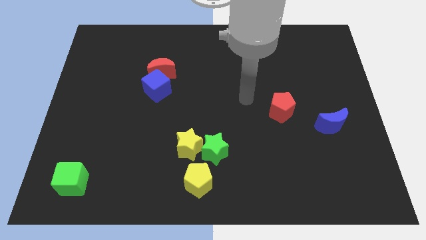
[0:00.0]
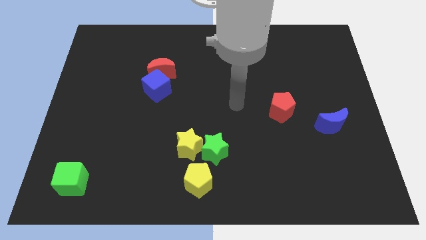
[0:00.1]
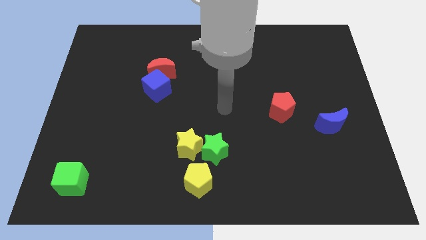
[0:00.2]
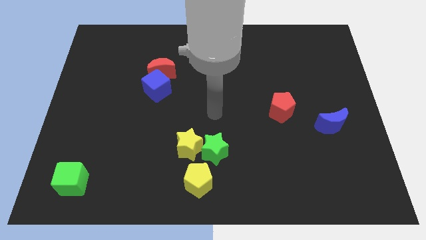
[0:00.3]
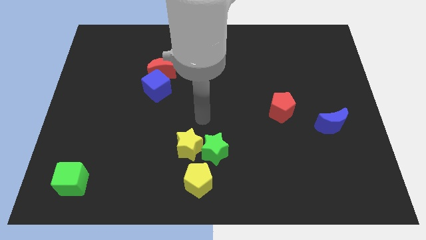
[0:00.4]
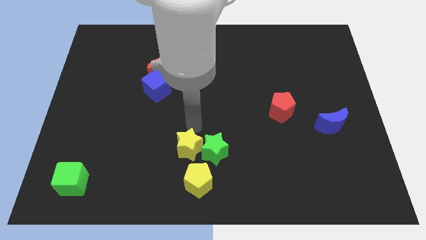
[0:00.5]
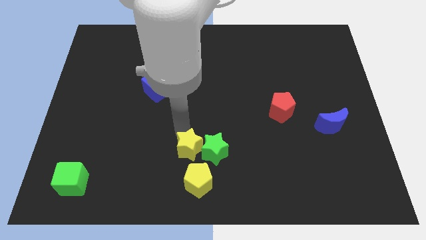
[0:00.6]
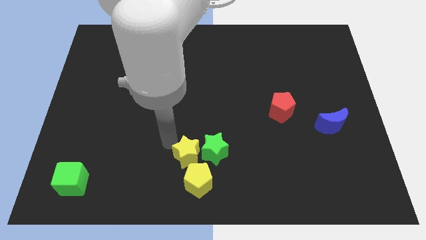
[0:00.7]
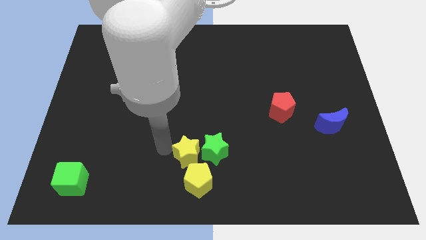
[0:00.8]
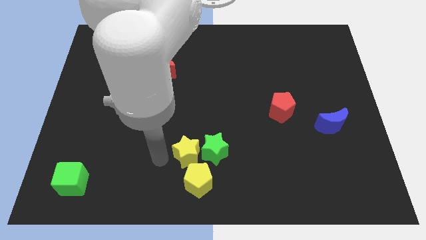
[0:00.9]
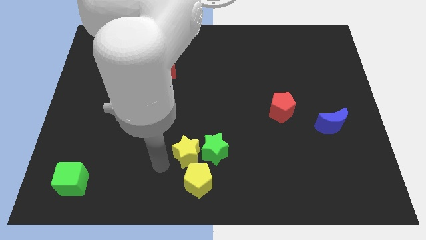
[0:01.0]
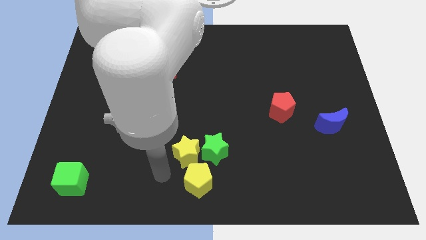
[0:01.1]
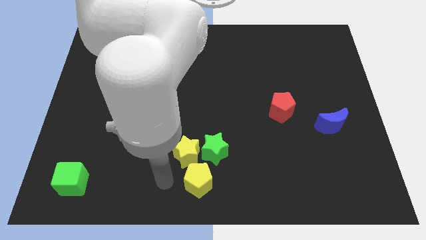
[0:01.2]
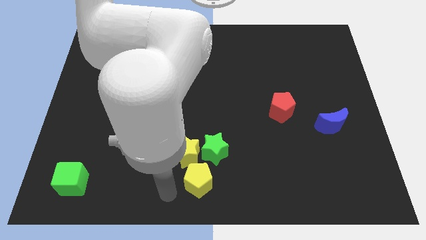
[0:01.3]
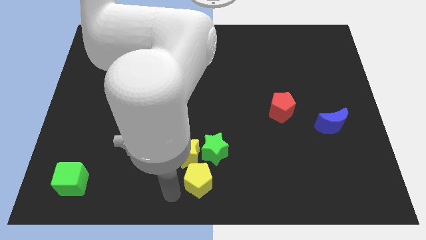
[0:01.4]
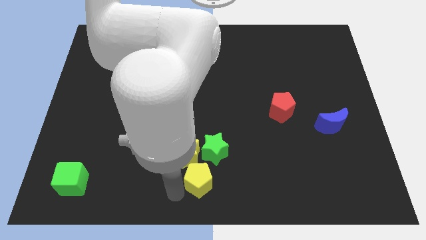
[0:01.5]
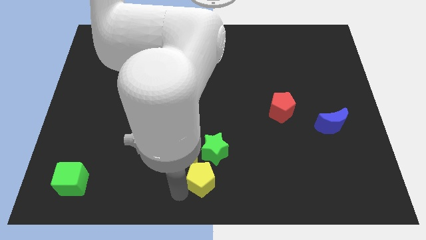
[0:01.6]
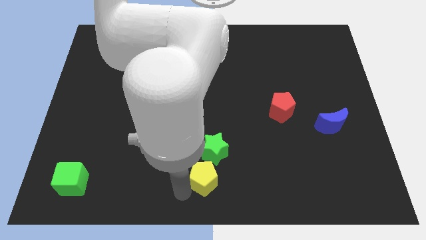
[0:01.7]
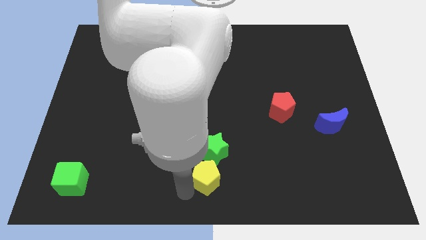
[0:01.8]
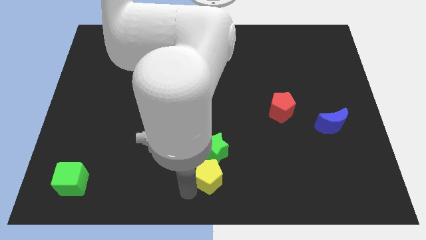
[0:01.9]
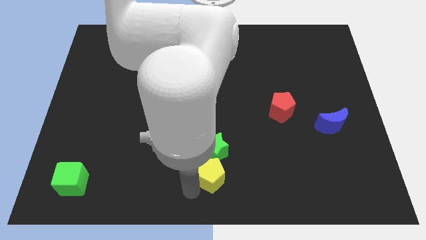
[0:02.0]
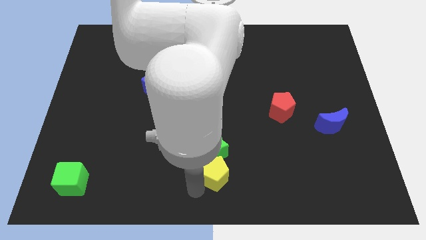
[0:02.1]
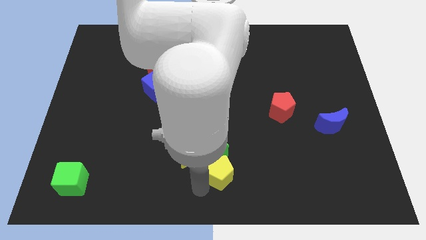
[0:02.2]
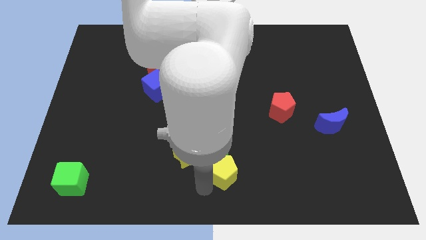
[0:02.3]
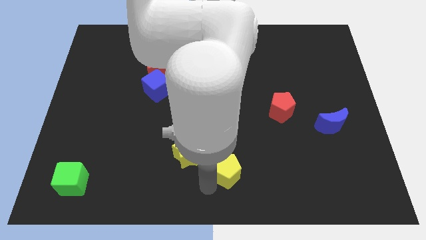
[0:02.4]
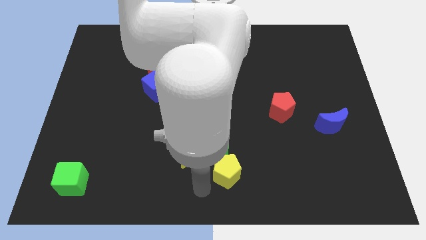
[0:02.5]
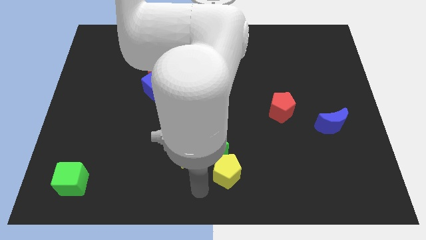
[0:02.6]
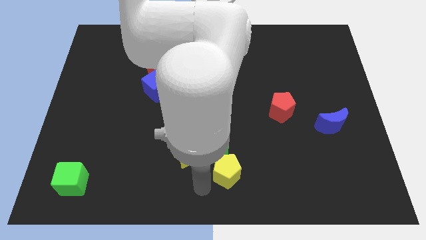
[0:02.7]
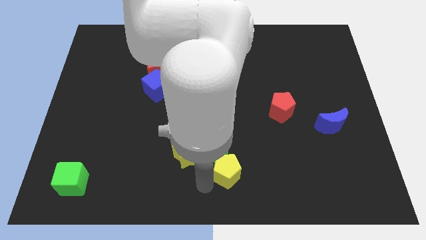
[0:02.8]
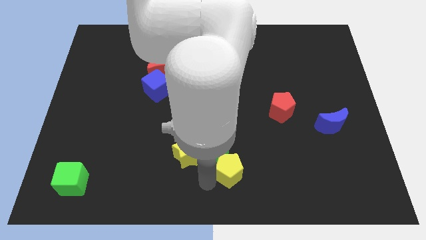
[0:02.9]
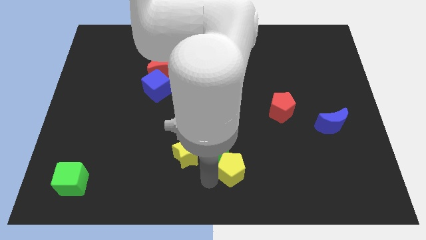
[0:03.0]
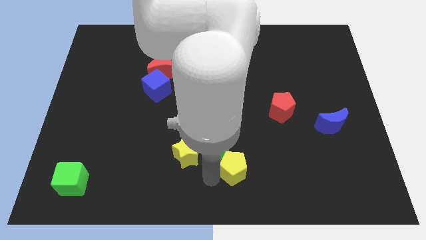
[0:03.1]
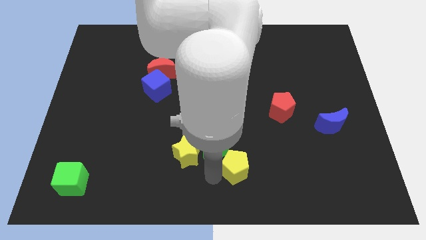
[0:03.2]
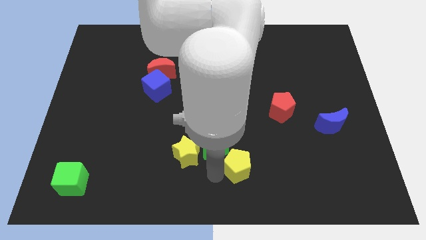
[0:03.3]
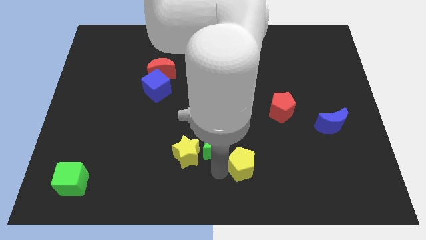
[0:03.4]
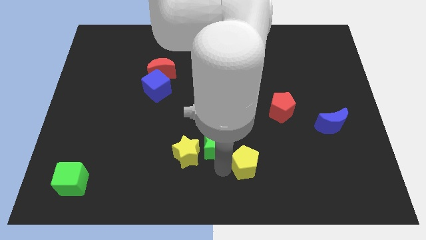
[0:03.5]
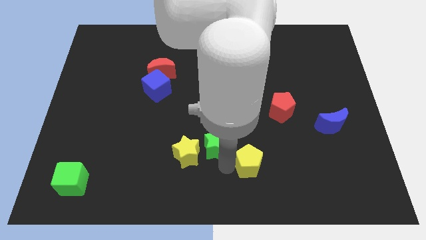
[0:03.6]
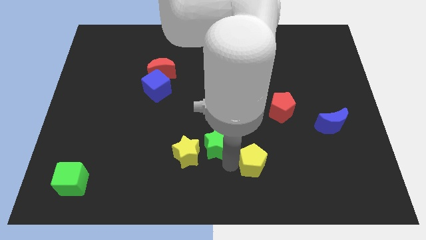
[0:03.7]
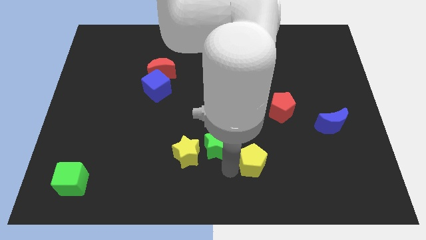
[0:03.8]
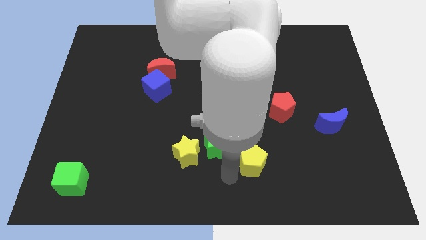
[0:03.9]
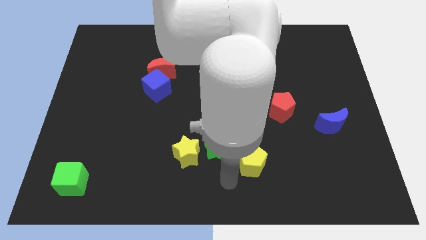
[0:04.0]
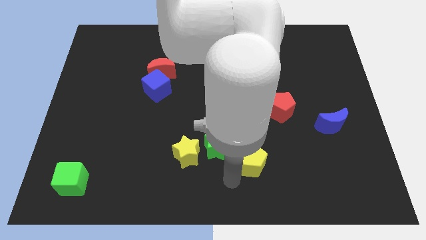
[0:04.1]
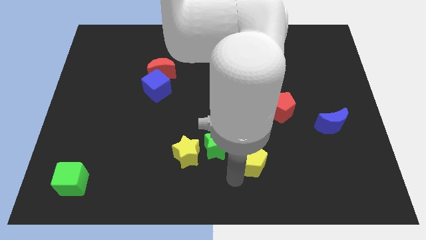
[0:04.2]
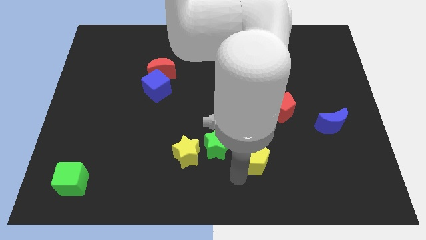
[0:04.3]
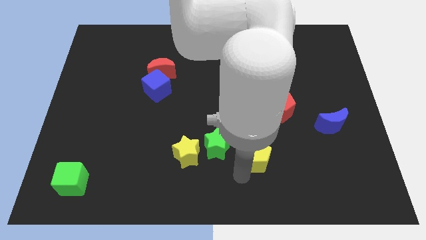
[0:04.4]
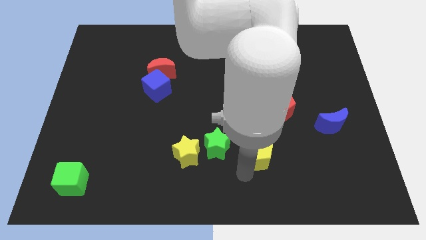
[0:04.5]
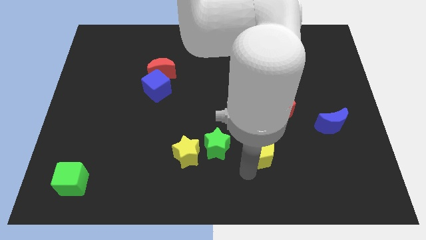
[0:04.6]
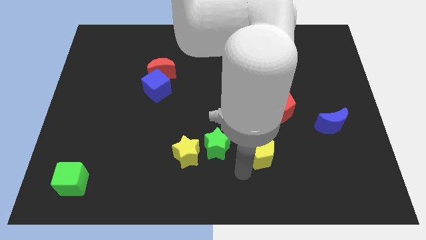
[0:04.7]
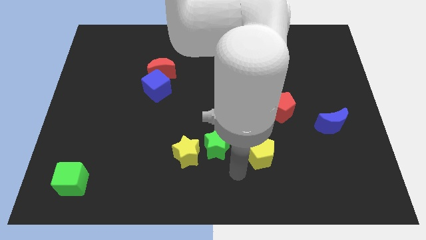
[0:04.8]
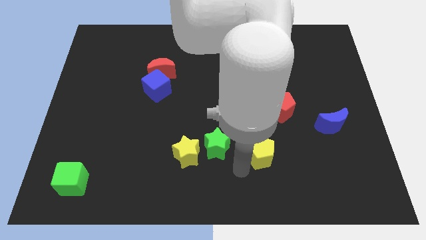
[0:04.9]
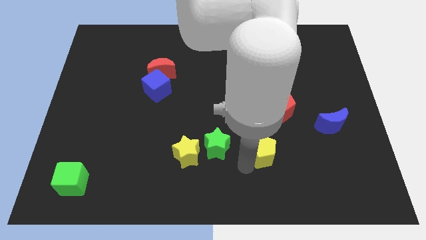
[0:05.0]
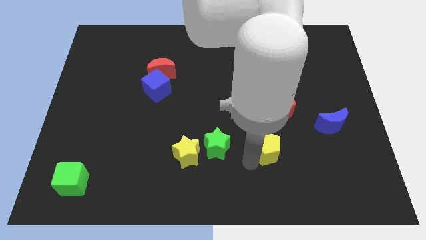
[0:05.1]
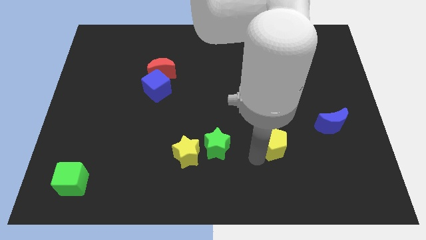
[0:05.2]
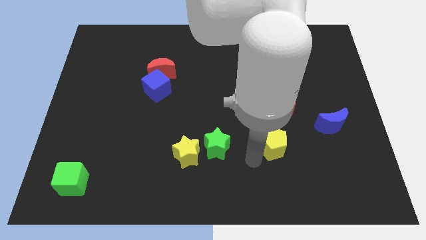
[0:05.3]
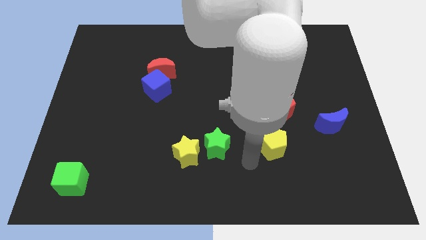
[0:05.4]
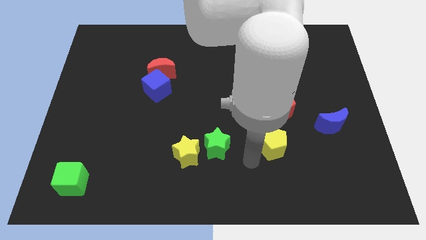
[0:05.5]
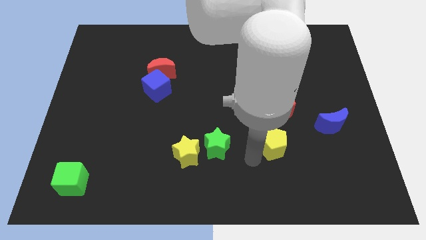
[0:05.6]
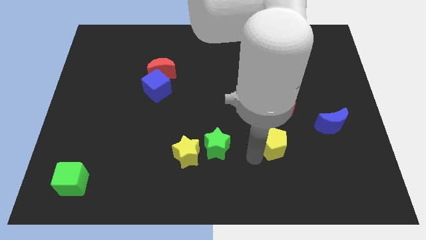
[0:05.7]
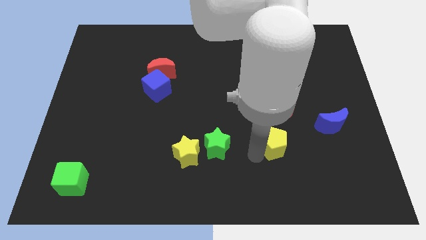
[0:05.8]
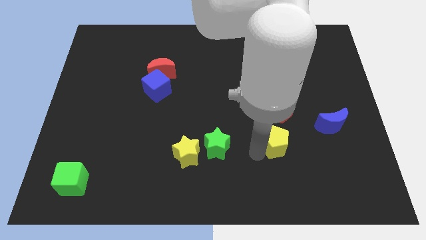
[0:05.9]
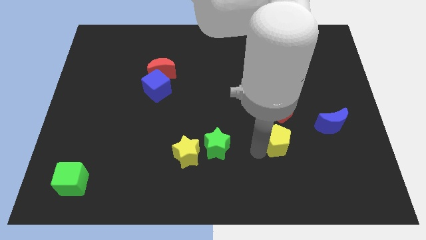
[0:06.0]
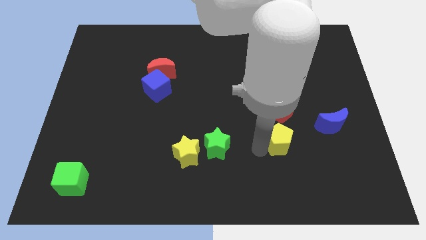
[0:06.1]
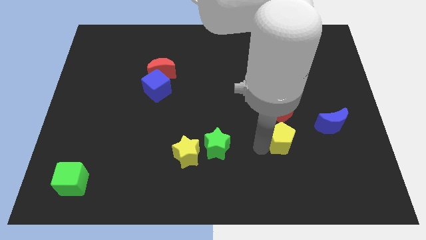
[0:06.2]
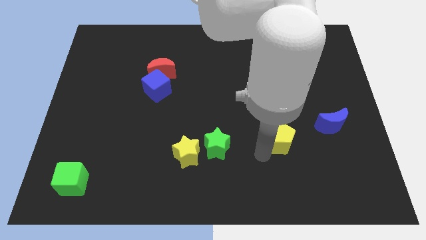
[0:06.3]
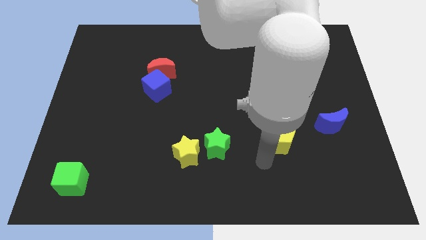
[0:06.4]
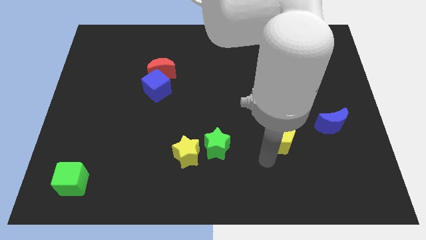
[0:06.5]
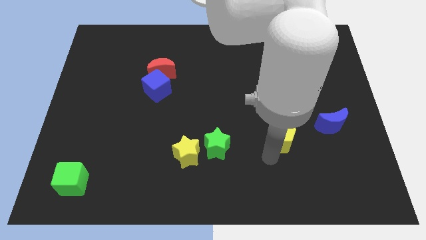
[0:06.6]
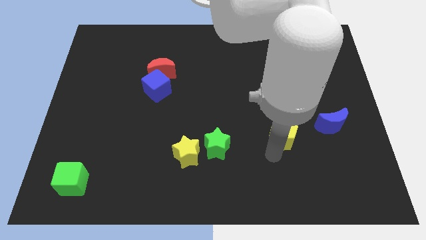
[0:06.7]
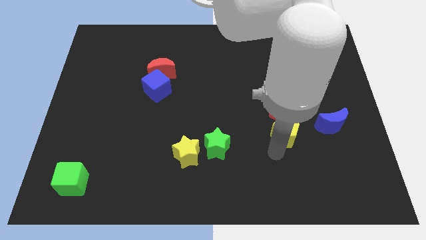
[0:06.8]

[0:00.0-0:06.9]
push the yellow pentagon upwards and then to the right

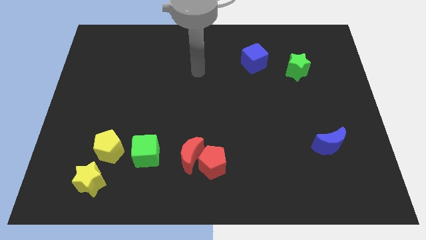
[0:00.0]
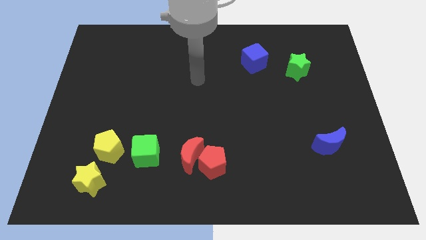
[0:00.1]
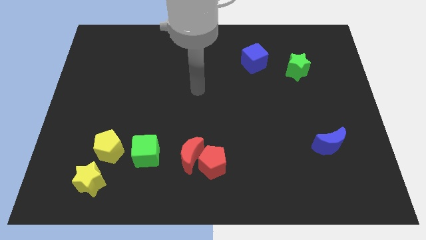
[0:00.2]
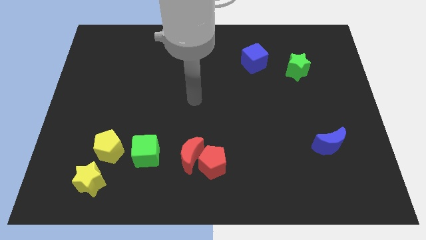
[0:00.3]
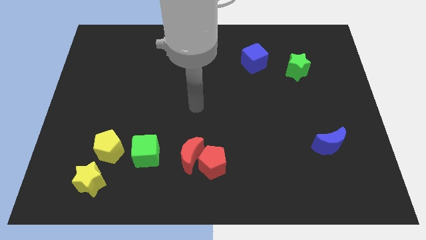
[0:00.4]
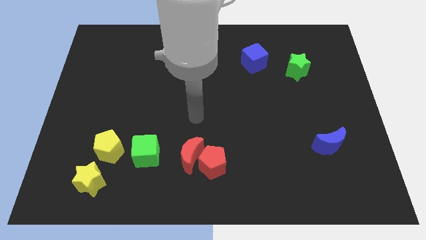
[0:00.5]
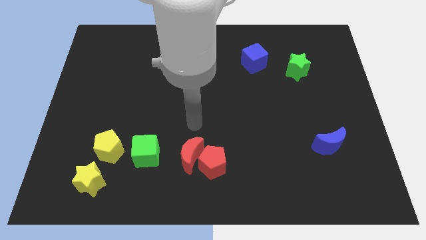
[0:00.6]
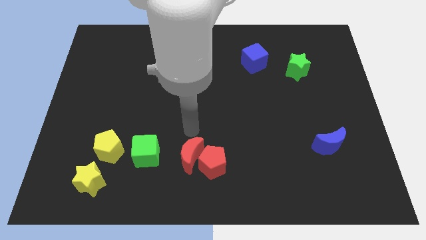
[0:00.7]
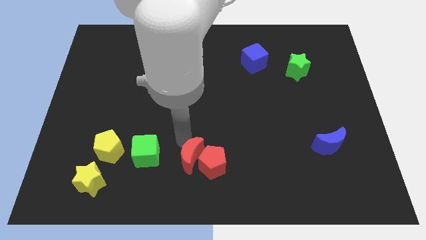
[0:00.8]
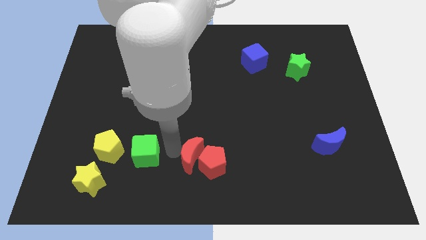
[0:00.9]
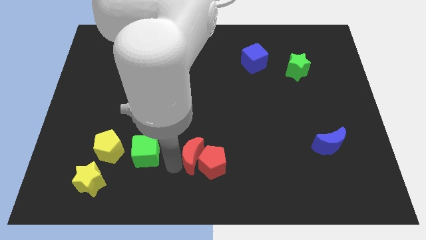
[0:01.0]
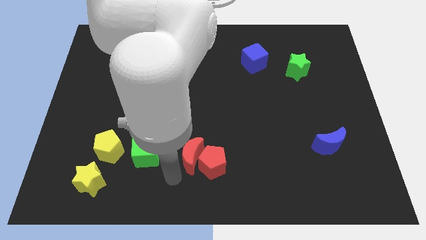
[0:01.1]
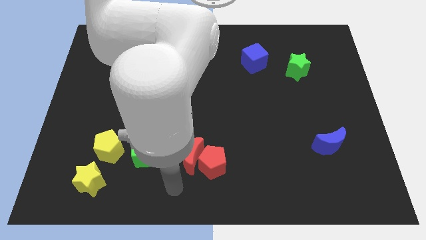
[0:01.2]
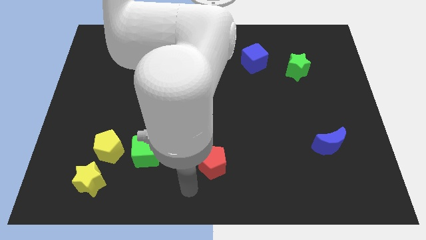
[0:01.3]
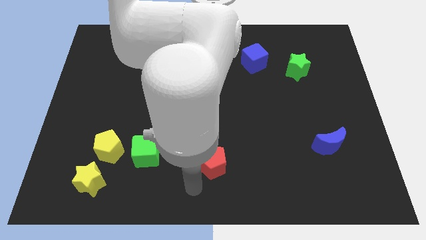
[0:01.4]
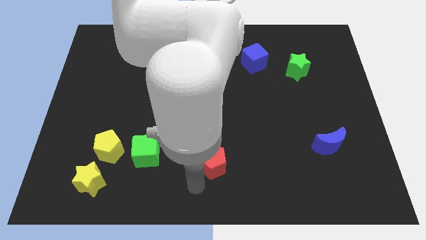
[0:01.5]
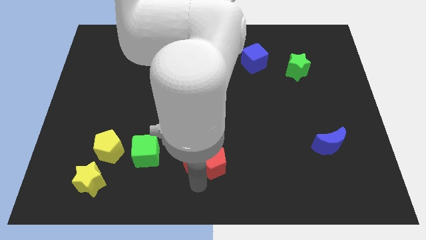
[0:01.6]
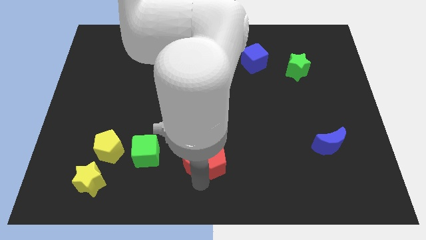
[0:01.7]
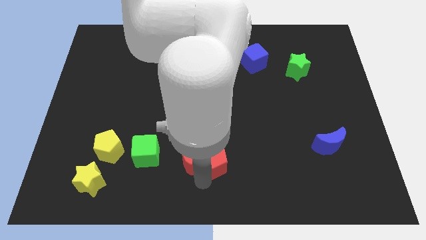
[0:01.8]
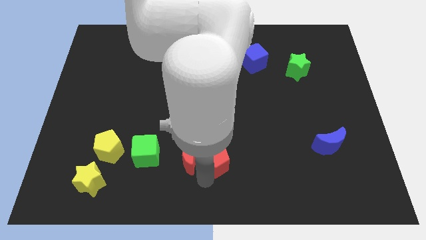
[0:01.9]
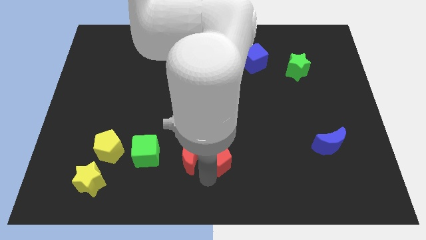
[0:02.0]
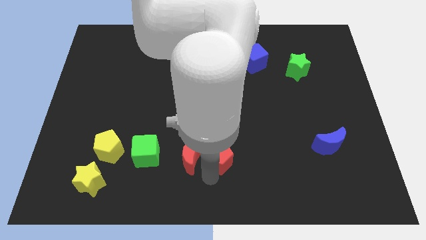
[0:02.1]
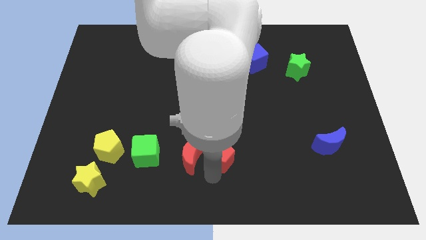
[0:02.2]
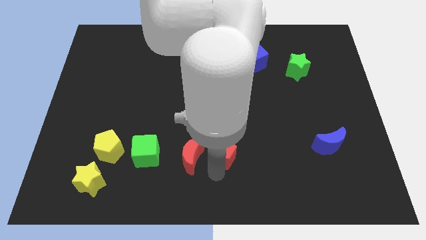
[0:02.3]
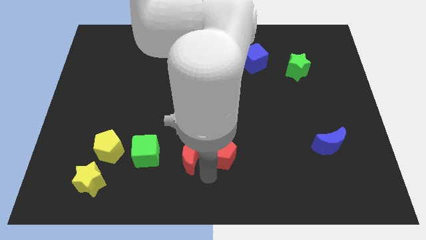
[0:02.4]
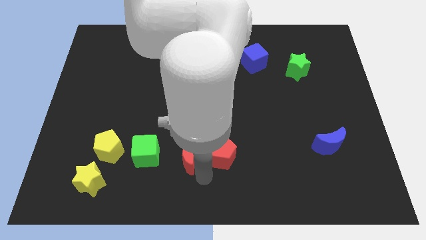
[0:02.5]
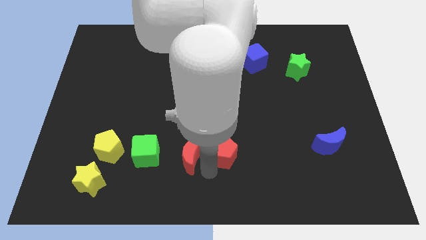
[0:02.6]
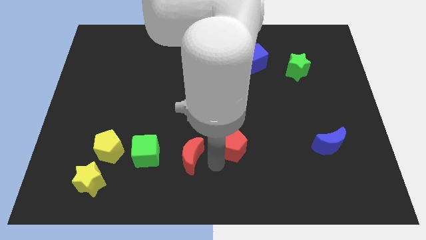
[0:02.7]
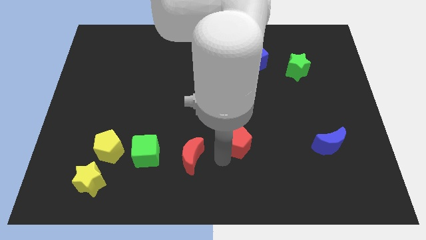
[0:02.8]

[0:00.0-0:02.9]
slightly move the red pentagon diagonally upwards and right
